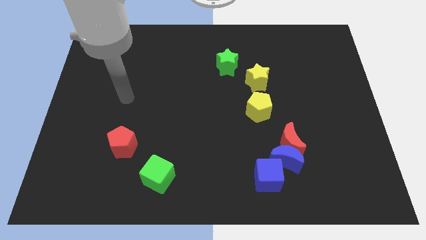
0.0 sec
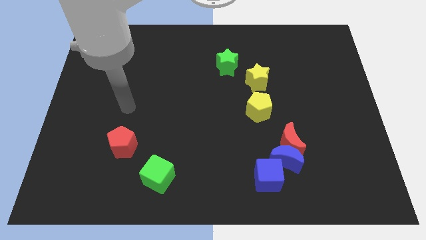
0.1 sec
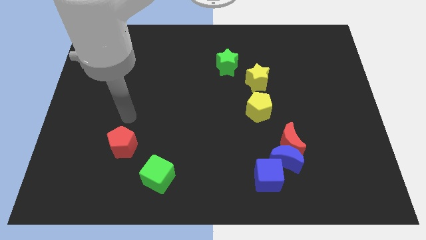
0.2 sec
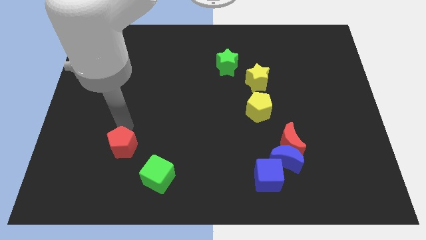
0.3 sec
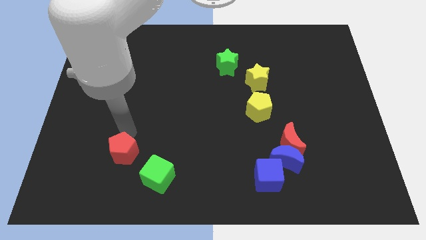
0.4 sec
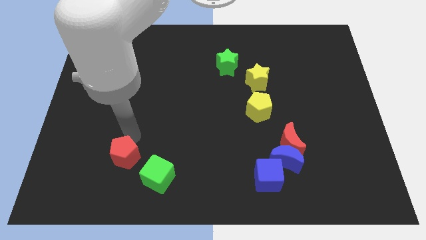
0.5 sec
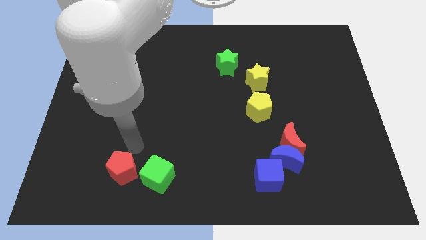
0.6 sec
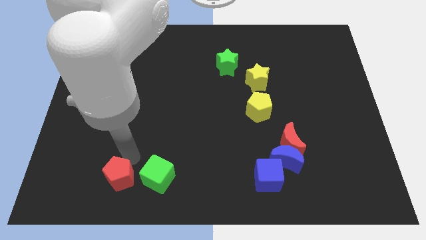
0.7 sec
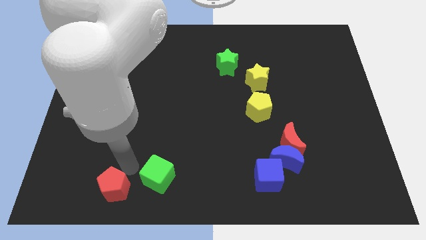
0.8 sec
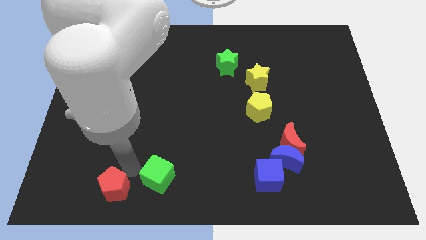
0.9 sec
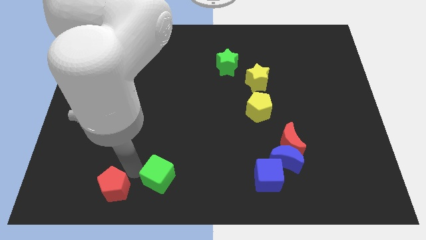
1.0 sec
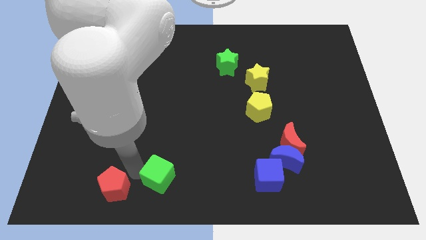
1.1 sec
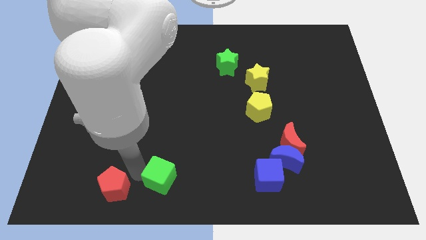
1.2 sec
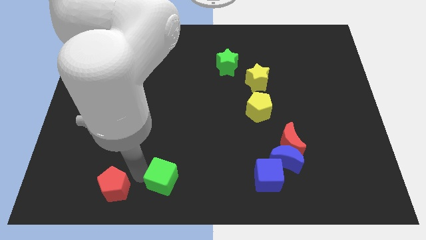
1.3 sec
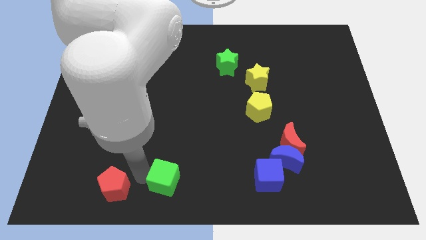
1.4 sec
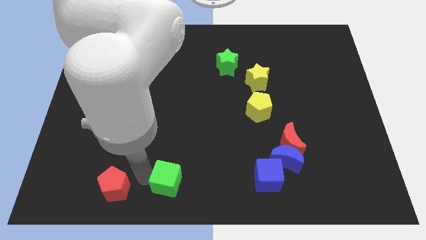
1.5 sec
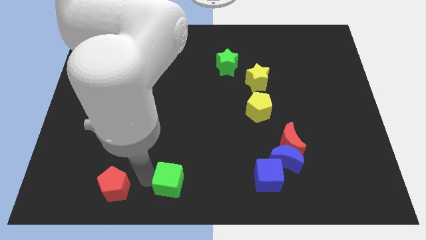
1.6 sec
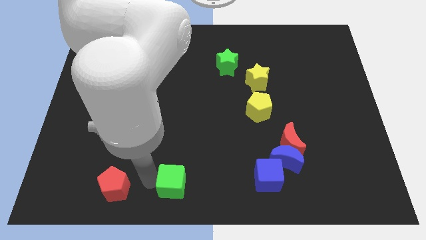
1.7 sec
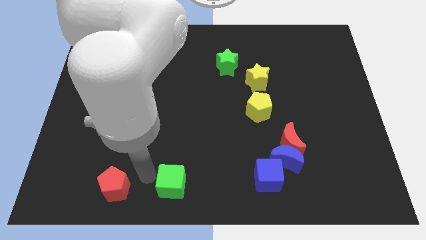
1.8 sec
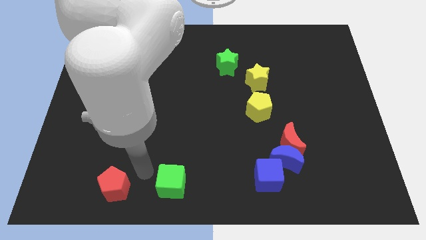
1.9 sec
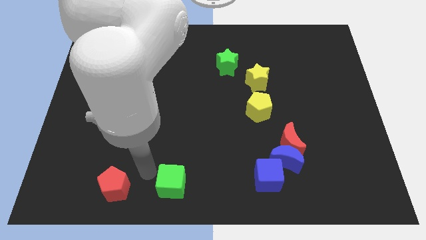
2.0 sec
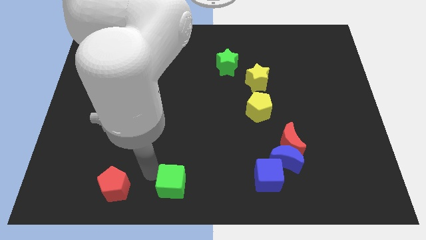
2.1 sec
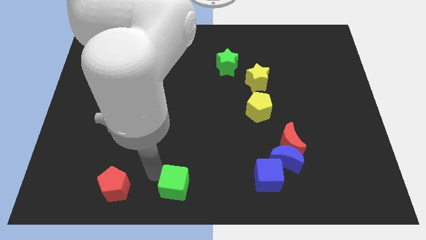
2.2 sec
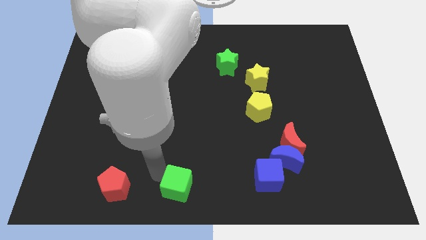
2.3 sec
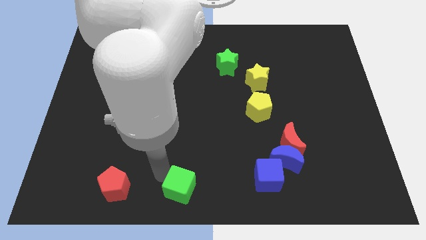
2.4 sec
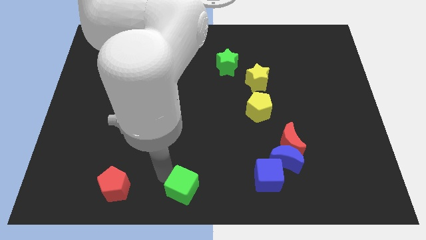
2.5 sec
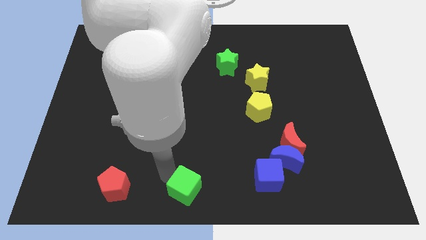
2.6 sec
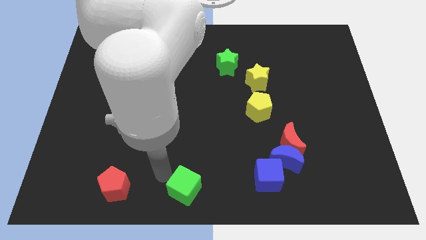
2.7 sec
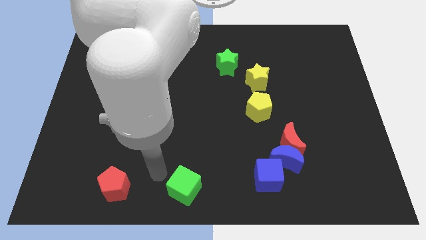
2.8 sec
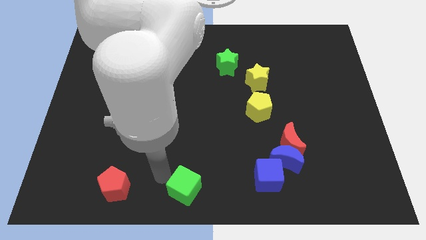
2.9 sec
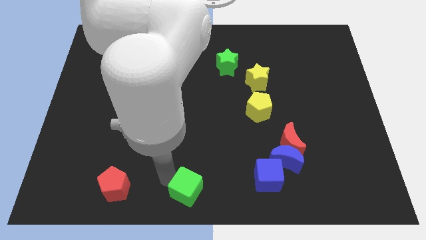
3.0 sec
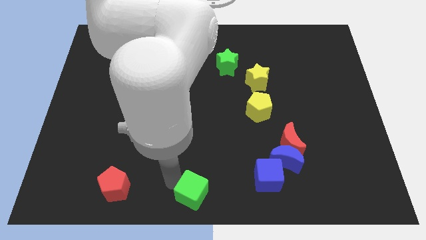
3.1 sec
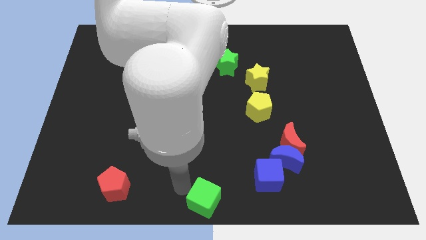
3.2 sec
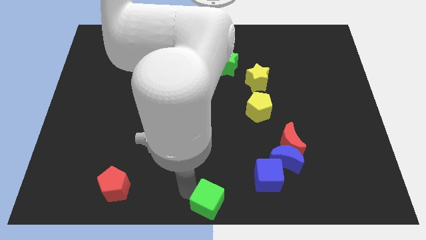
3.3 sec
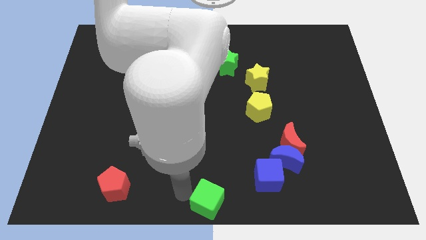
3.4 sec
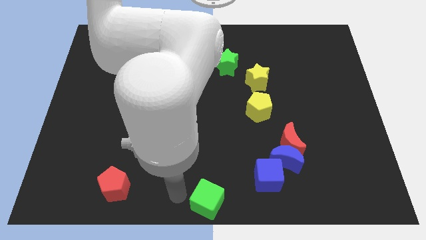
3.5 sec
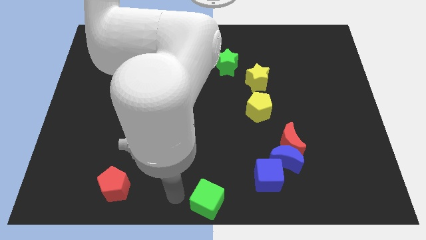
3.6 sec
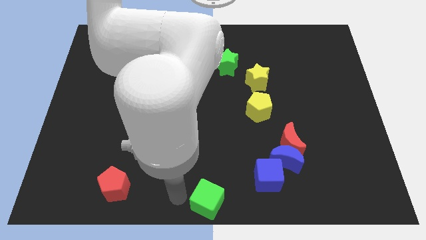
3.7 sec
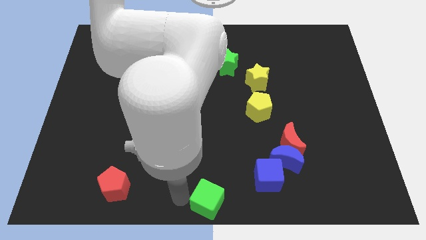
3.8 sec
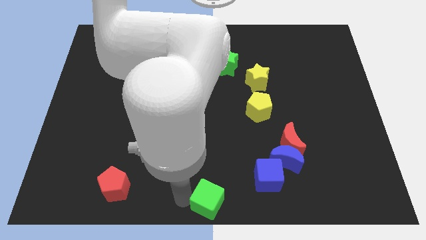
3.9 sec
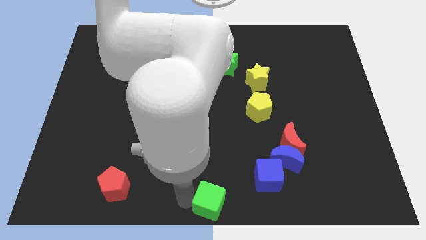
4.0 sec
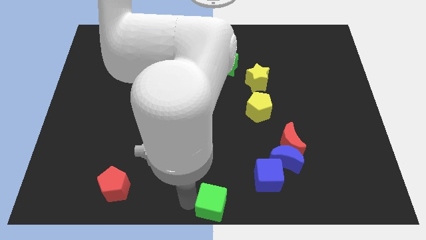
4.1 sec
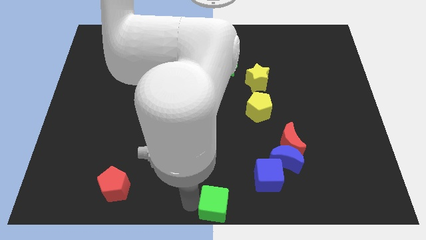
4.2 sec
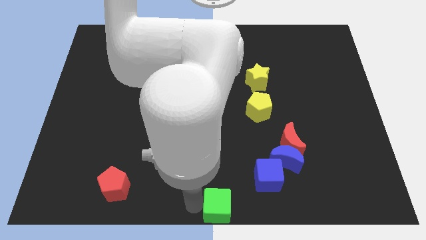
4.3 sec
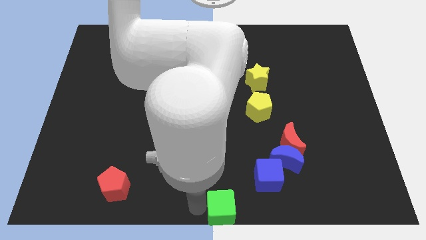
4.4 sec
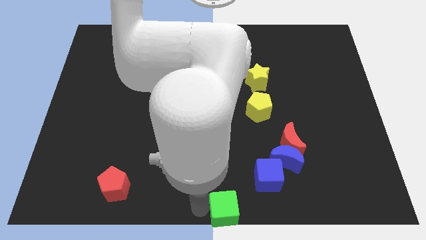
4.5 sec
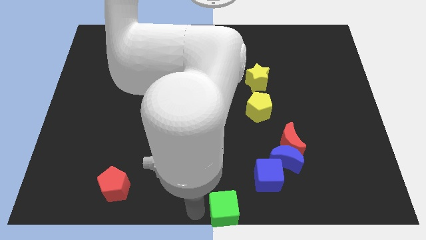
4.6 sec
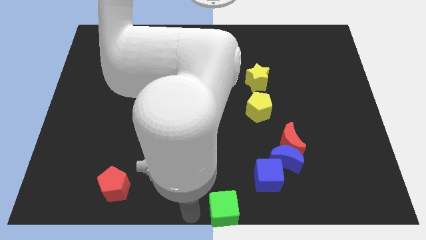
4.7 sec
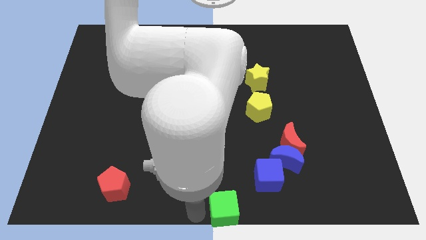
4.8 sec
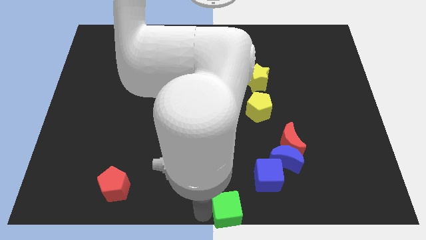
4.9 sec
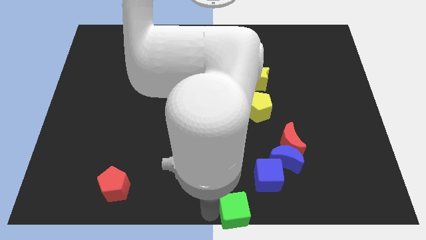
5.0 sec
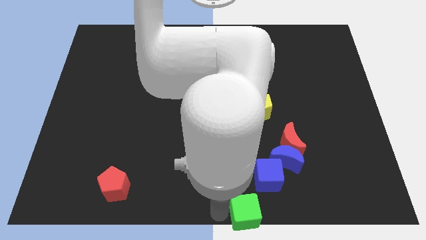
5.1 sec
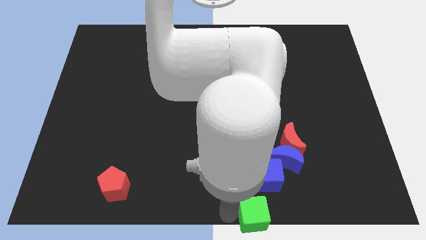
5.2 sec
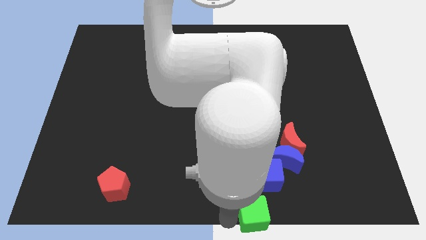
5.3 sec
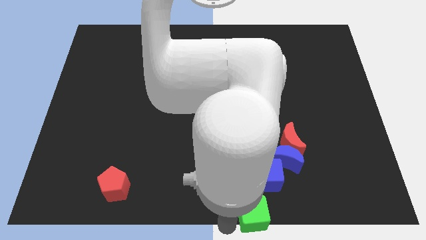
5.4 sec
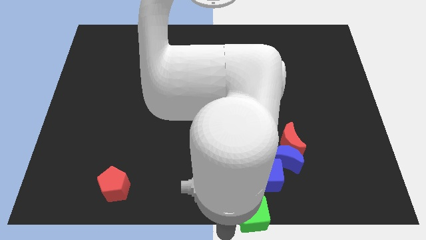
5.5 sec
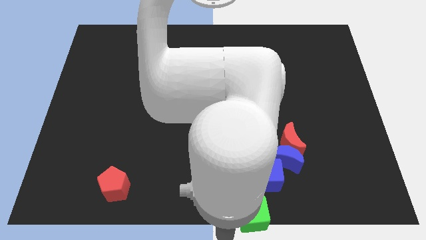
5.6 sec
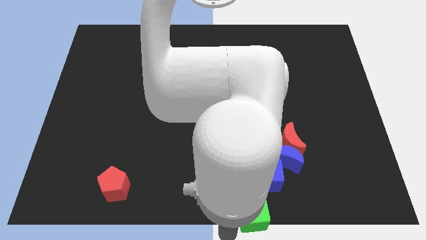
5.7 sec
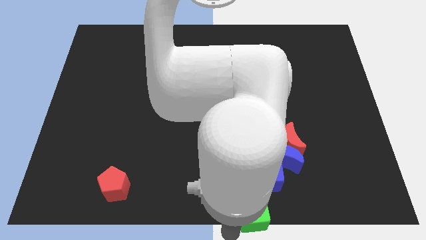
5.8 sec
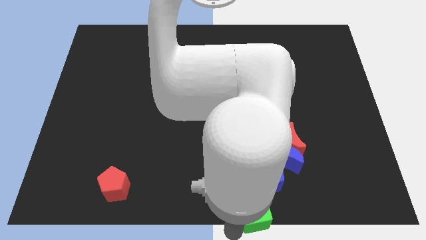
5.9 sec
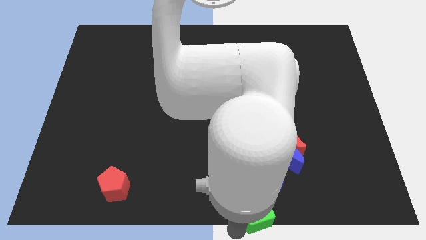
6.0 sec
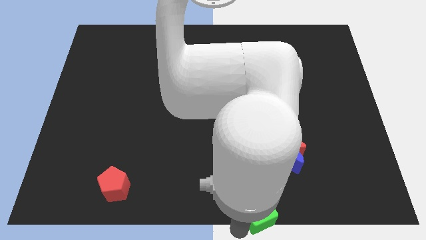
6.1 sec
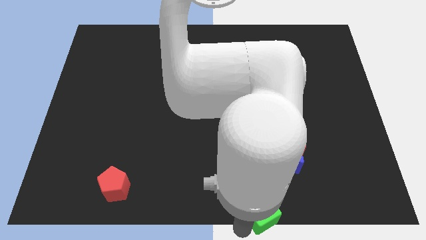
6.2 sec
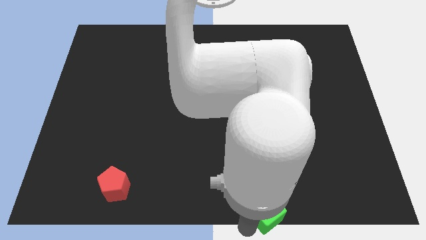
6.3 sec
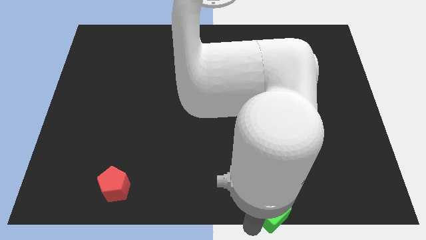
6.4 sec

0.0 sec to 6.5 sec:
move the green cube to the right

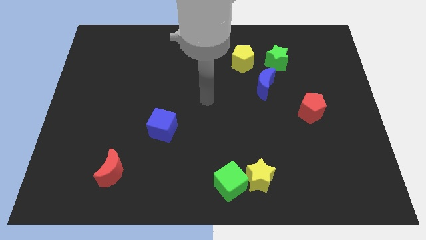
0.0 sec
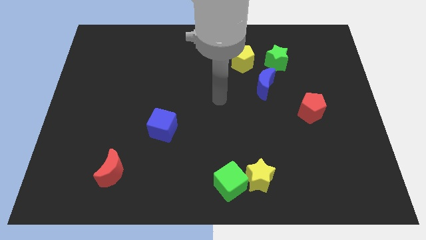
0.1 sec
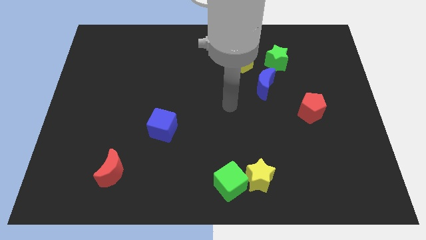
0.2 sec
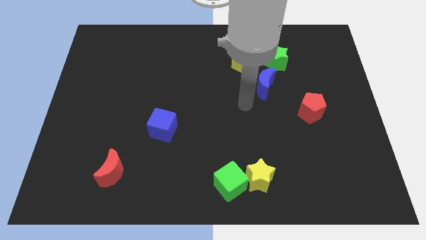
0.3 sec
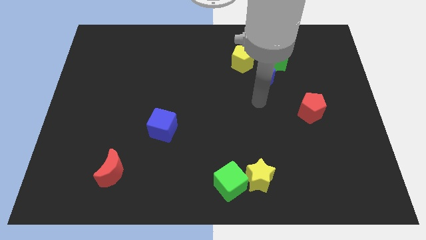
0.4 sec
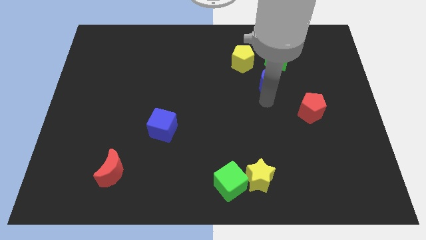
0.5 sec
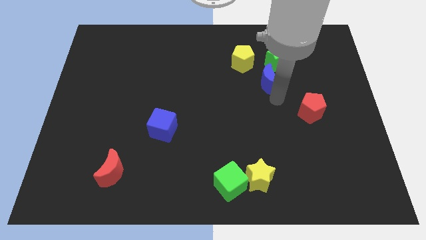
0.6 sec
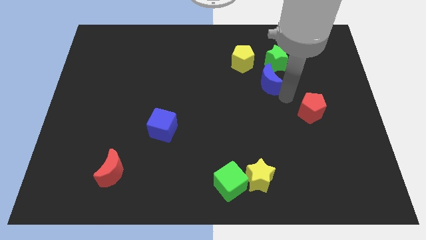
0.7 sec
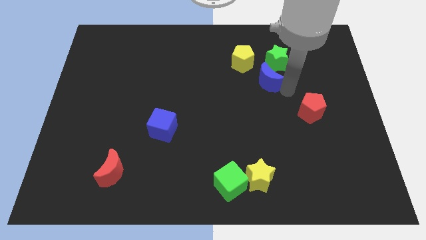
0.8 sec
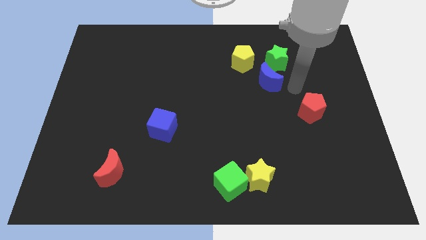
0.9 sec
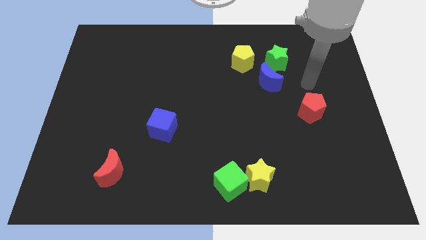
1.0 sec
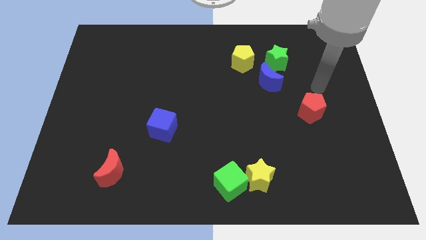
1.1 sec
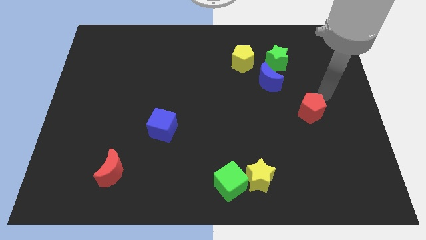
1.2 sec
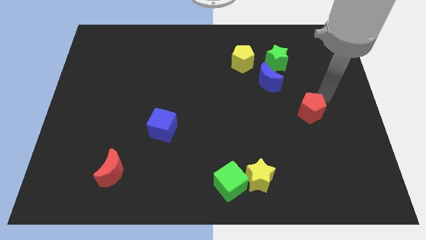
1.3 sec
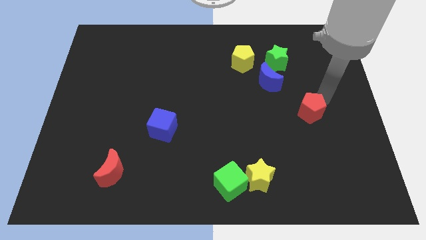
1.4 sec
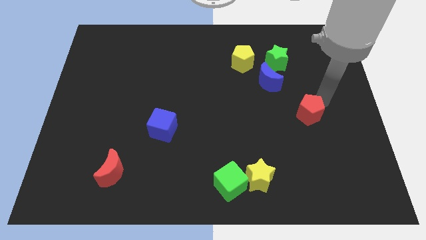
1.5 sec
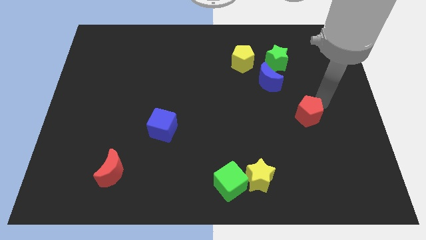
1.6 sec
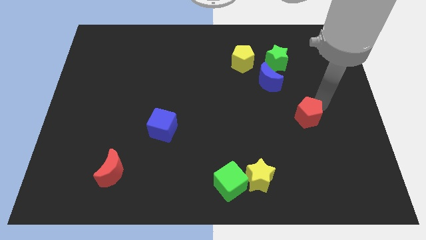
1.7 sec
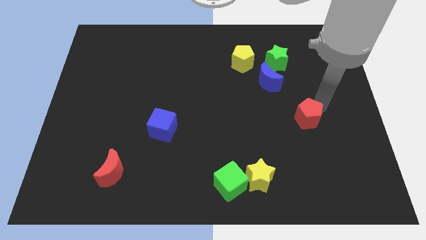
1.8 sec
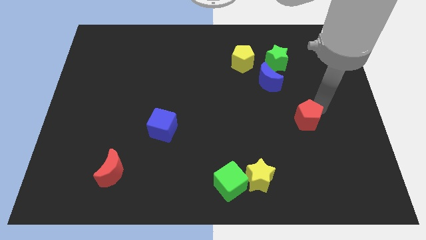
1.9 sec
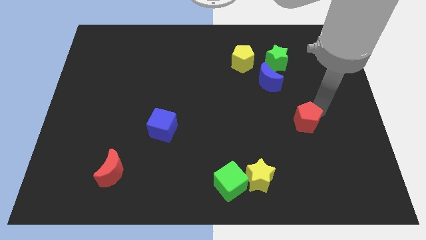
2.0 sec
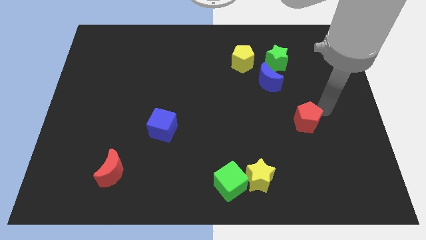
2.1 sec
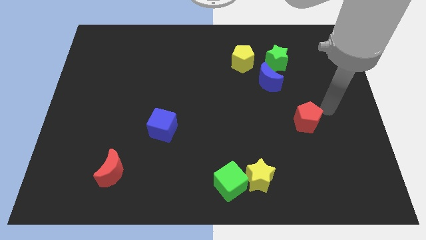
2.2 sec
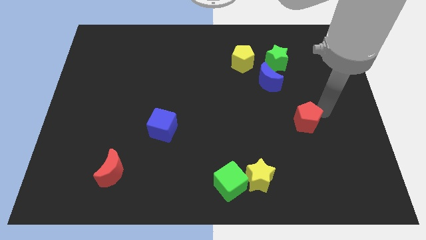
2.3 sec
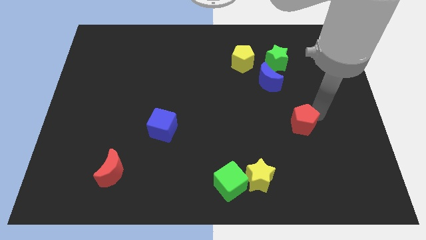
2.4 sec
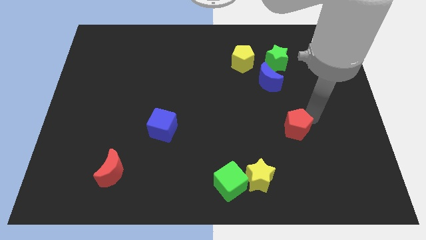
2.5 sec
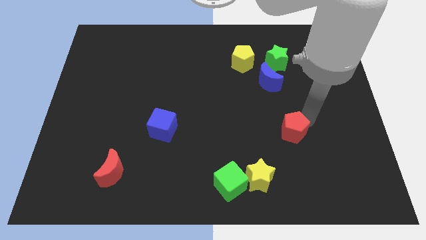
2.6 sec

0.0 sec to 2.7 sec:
push the red pentagon slightly diagonally down and left
